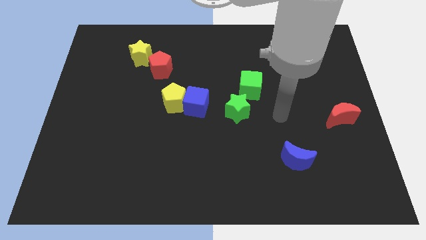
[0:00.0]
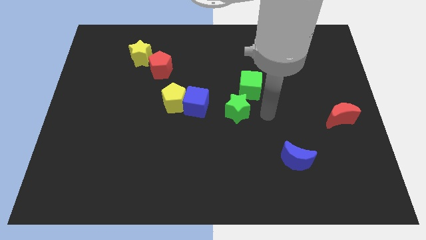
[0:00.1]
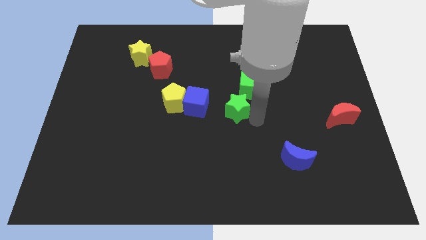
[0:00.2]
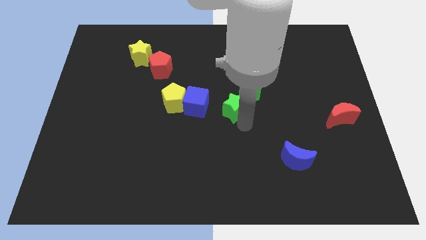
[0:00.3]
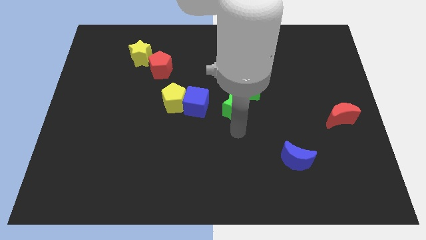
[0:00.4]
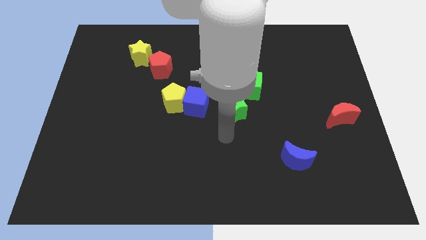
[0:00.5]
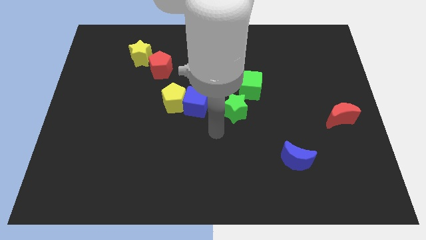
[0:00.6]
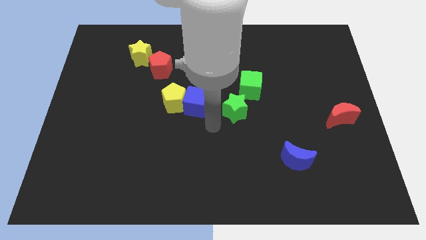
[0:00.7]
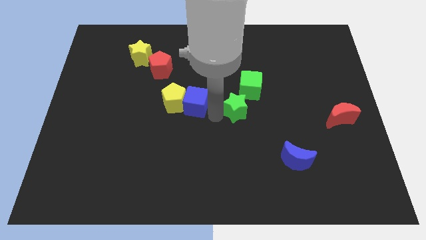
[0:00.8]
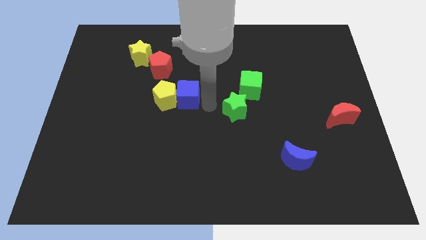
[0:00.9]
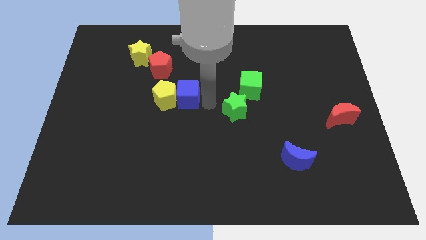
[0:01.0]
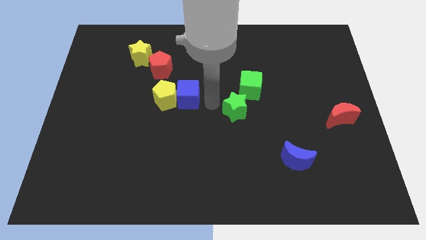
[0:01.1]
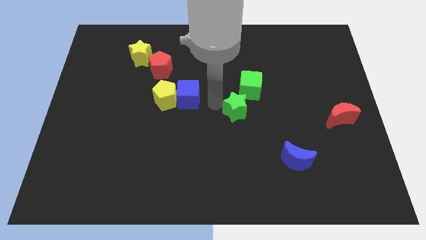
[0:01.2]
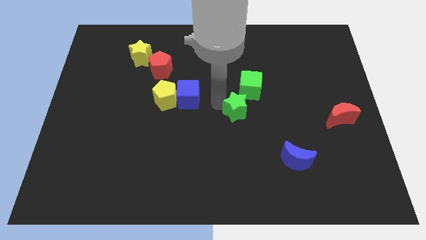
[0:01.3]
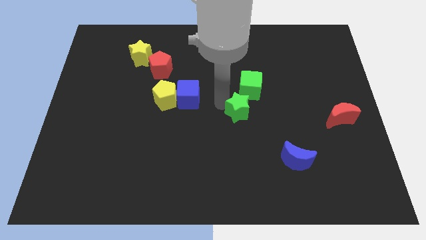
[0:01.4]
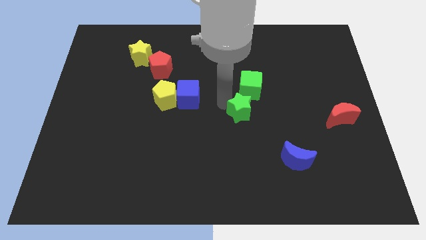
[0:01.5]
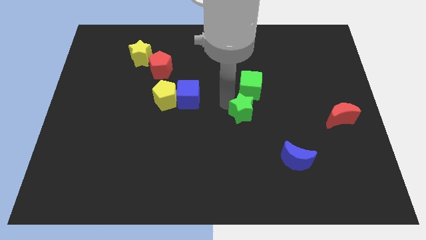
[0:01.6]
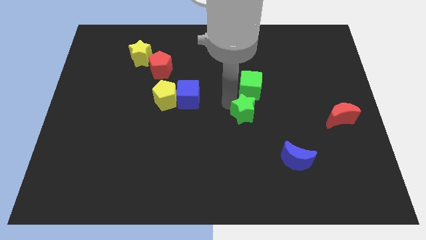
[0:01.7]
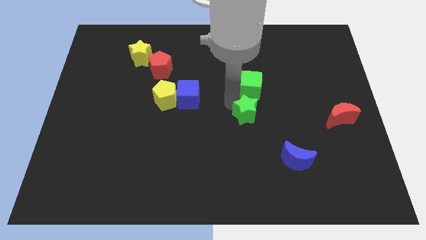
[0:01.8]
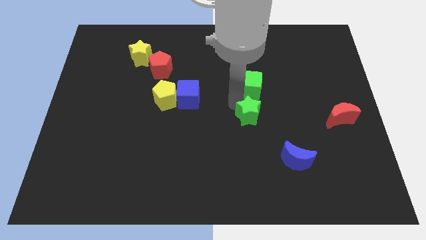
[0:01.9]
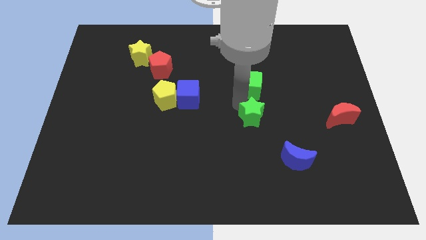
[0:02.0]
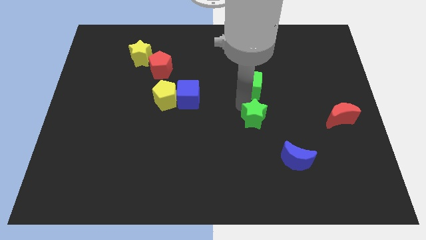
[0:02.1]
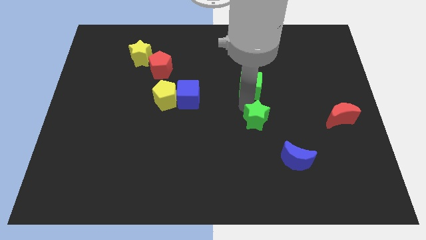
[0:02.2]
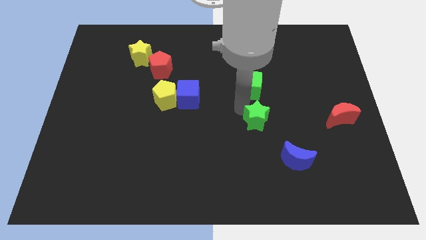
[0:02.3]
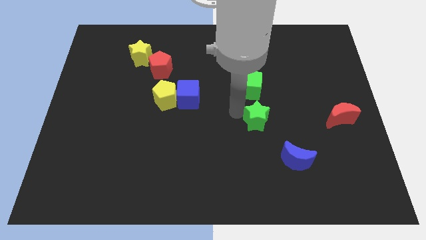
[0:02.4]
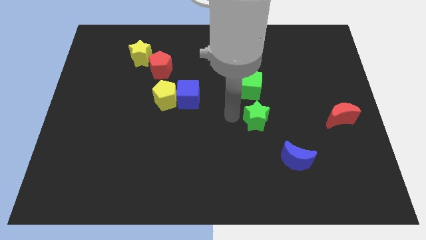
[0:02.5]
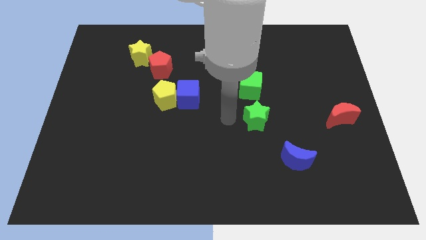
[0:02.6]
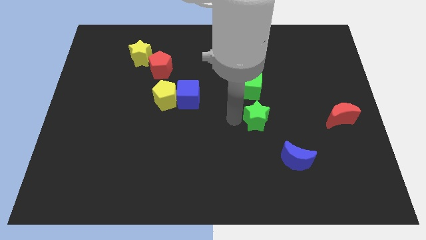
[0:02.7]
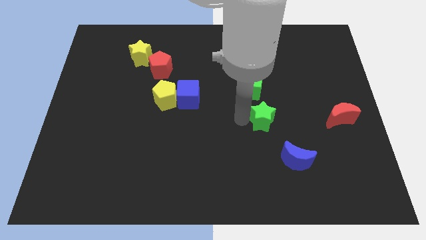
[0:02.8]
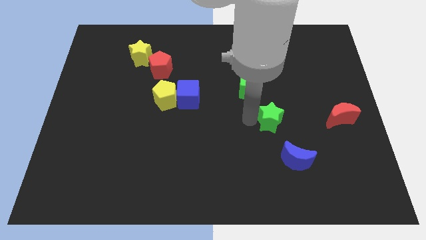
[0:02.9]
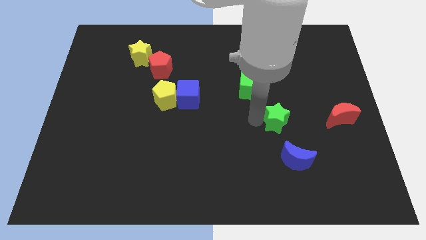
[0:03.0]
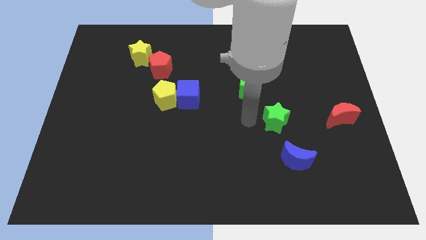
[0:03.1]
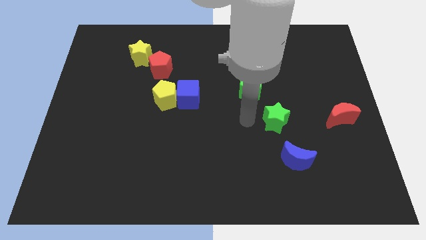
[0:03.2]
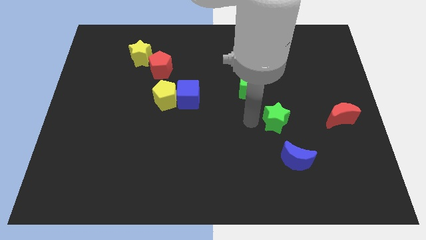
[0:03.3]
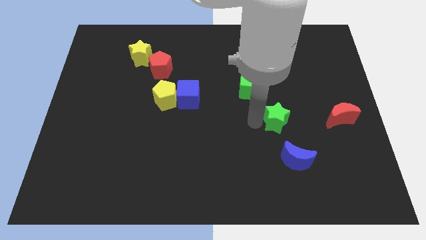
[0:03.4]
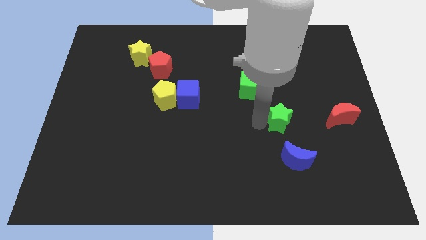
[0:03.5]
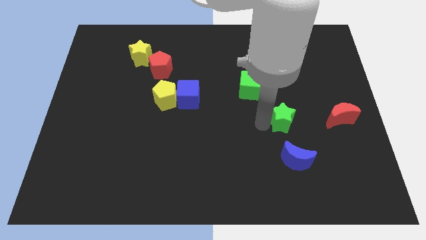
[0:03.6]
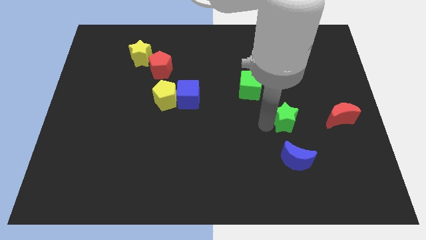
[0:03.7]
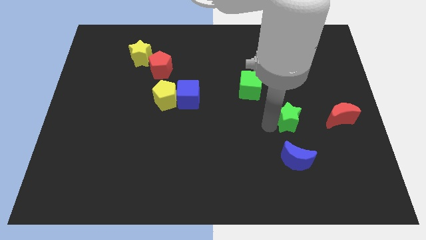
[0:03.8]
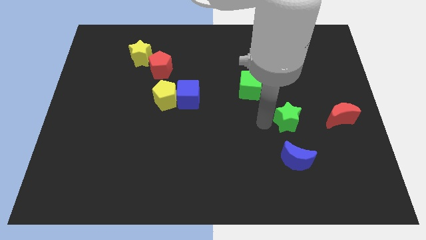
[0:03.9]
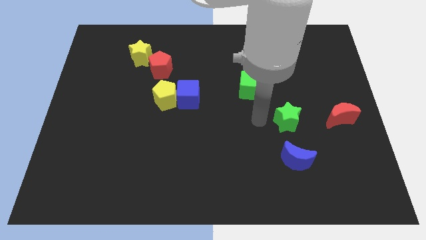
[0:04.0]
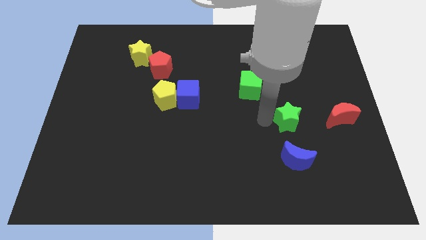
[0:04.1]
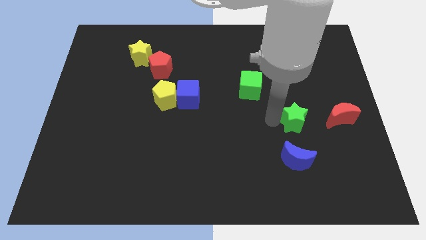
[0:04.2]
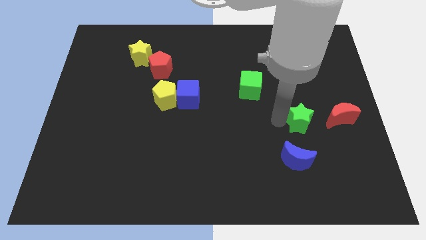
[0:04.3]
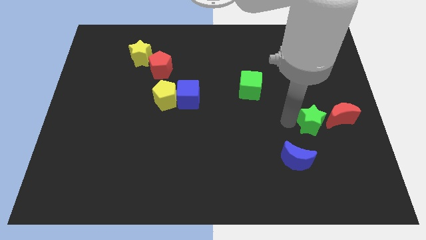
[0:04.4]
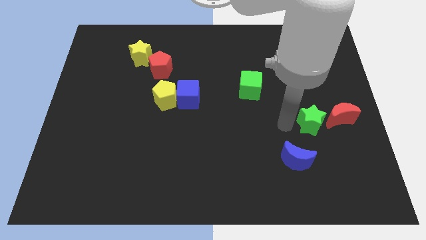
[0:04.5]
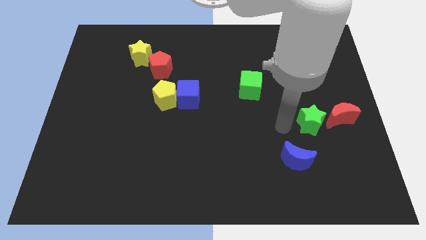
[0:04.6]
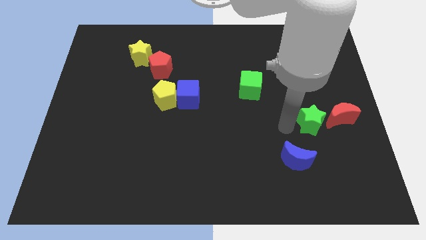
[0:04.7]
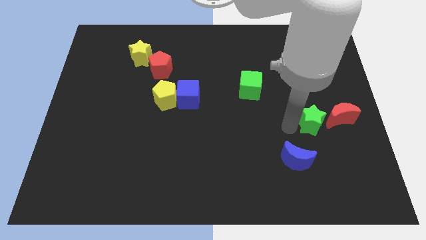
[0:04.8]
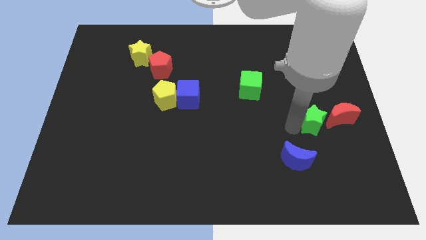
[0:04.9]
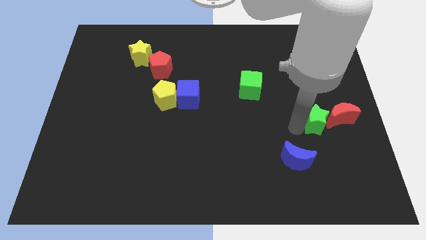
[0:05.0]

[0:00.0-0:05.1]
put the green star towards the red moon

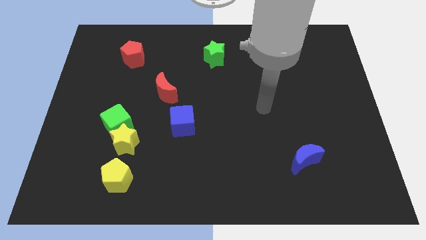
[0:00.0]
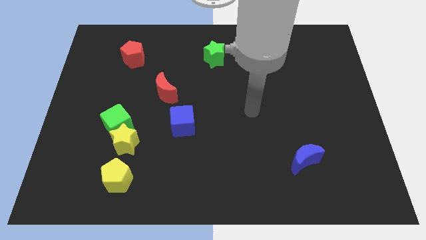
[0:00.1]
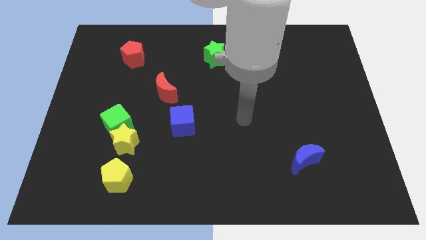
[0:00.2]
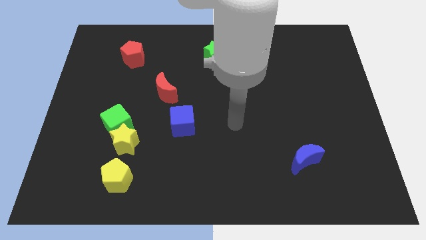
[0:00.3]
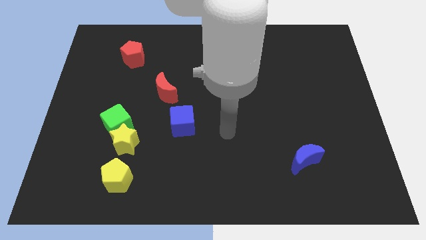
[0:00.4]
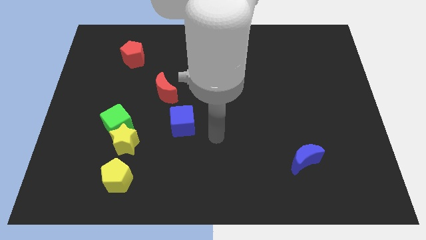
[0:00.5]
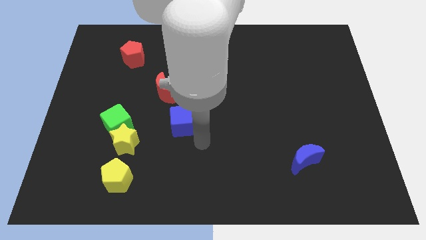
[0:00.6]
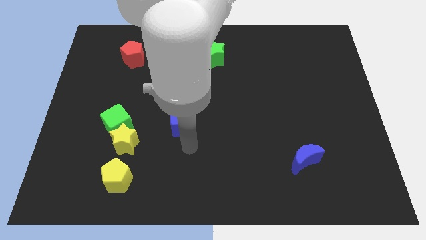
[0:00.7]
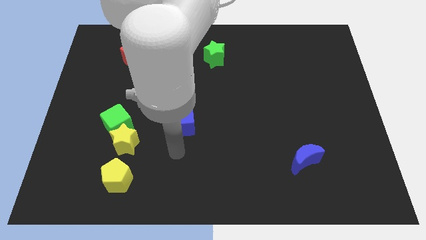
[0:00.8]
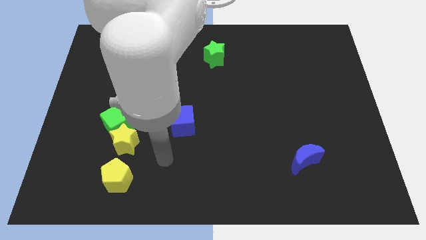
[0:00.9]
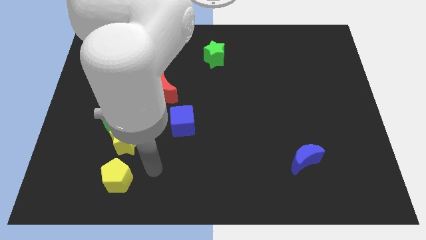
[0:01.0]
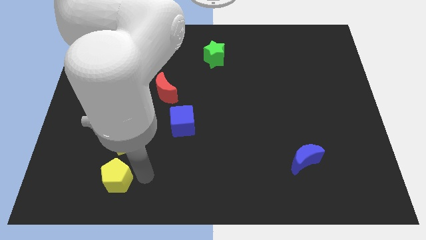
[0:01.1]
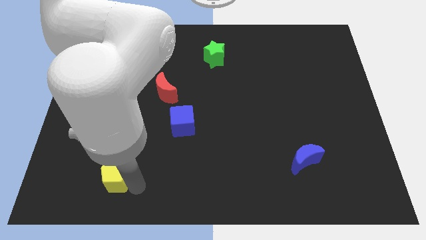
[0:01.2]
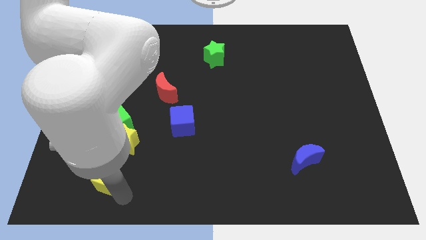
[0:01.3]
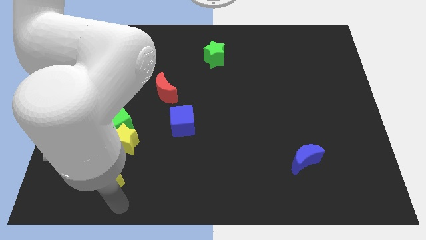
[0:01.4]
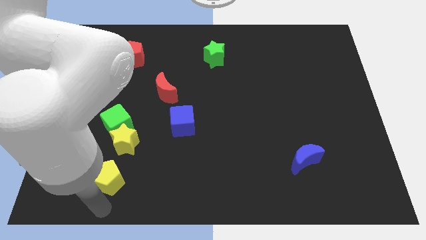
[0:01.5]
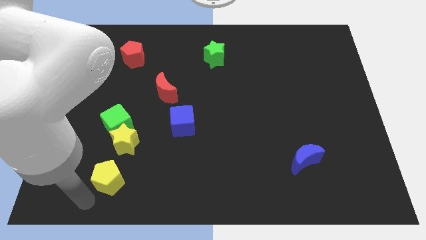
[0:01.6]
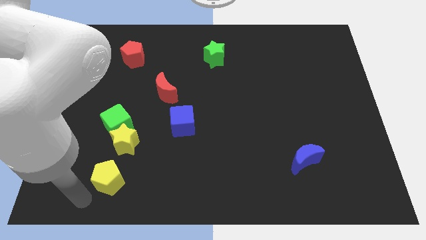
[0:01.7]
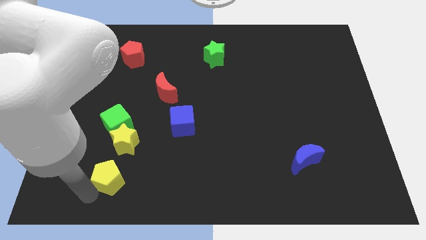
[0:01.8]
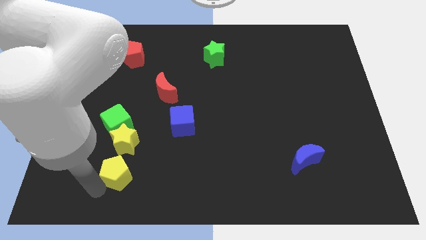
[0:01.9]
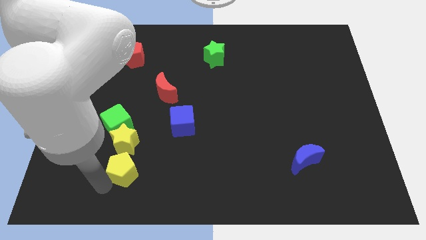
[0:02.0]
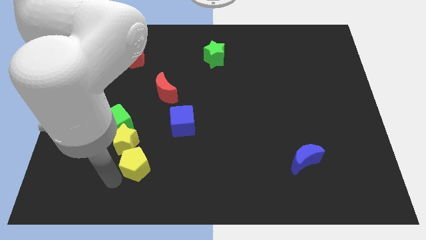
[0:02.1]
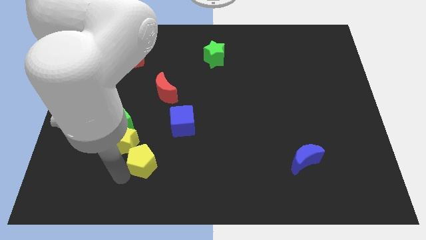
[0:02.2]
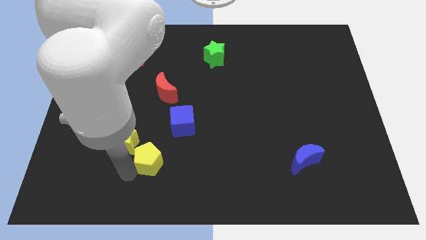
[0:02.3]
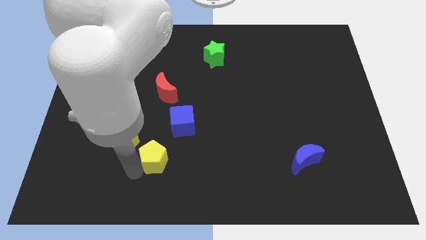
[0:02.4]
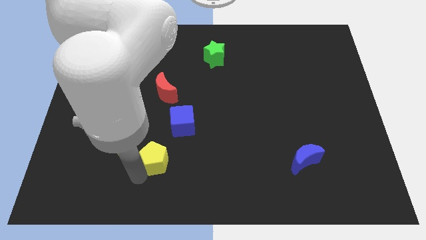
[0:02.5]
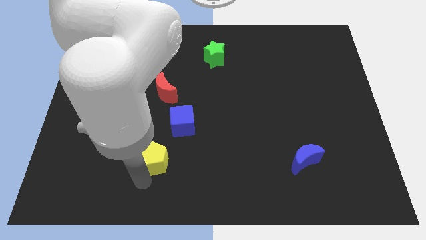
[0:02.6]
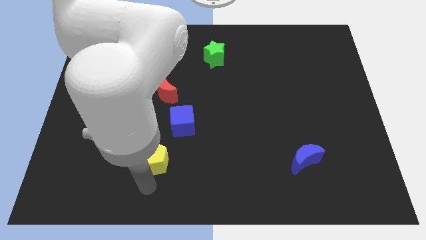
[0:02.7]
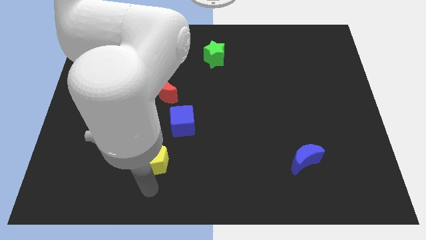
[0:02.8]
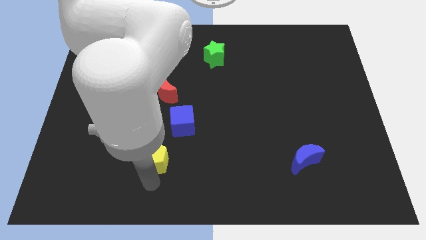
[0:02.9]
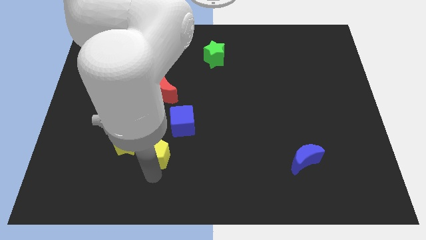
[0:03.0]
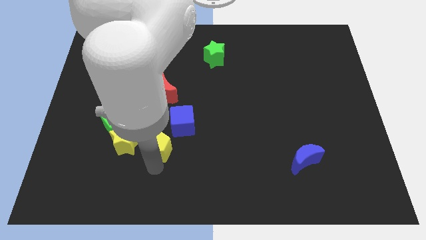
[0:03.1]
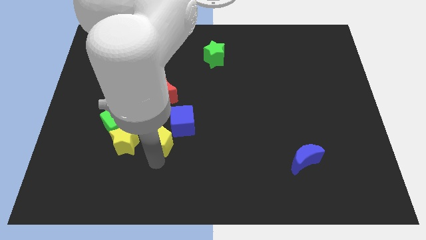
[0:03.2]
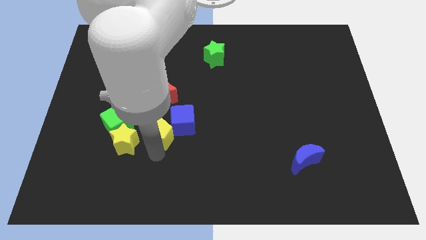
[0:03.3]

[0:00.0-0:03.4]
move the yellow pentagon towards the blue cube
